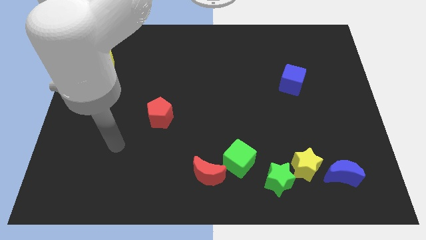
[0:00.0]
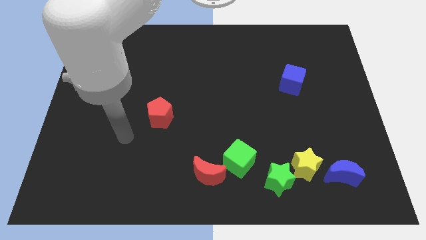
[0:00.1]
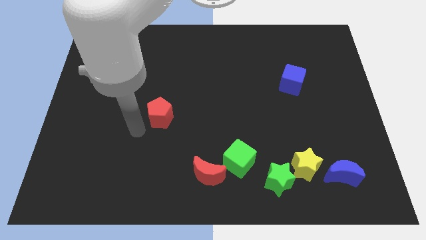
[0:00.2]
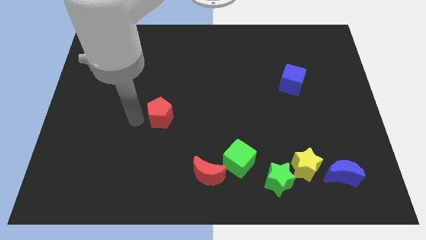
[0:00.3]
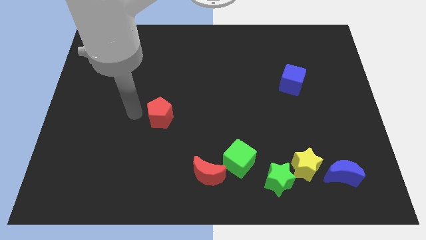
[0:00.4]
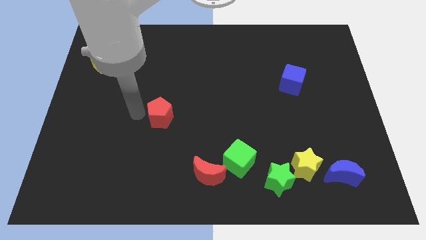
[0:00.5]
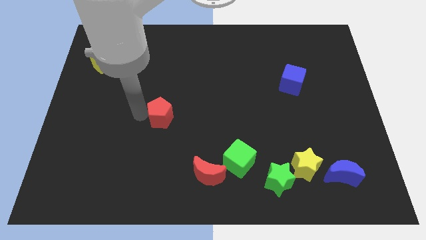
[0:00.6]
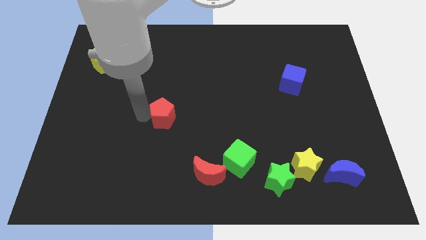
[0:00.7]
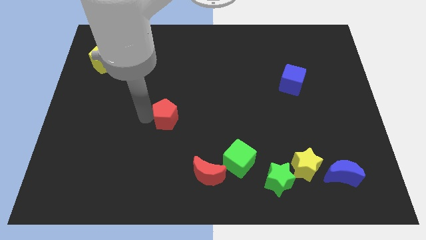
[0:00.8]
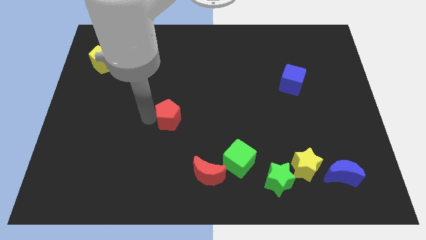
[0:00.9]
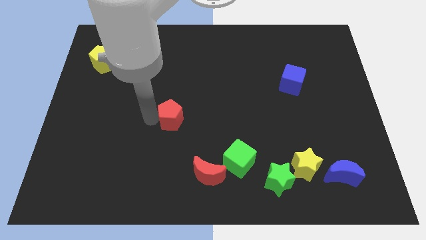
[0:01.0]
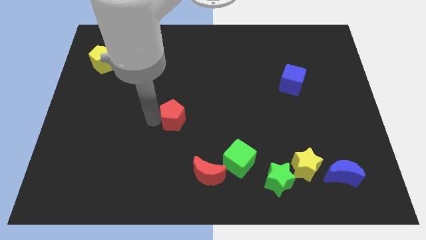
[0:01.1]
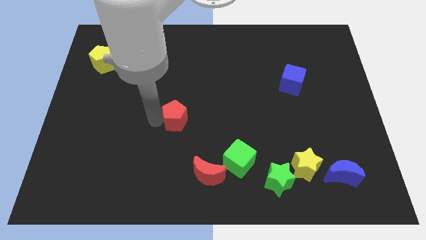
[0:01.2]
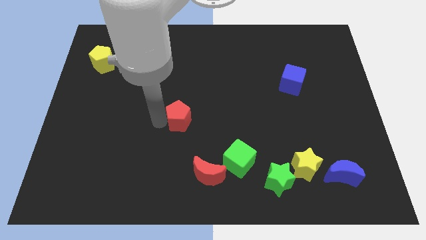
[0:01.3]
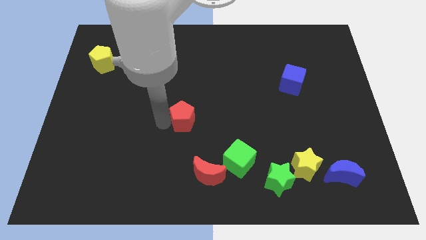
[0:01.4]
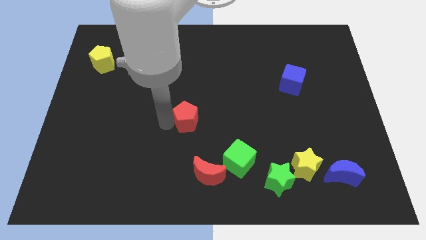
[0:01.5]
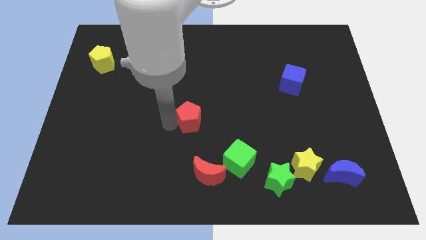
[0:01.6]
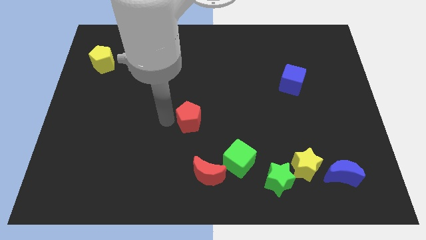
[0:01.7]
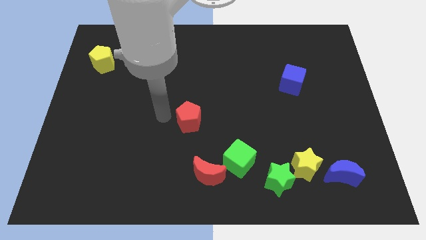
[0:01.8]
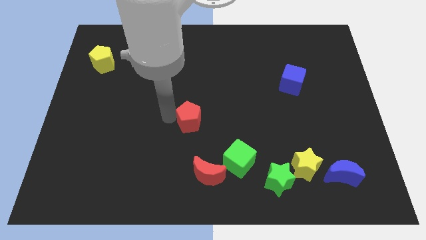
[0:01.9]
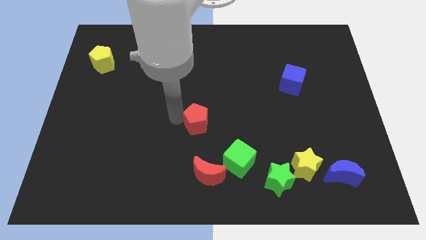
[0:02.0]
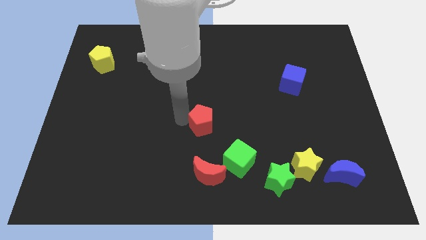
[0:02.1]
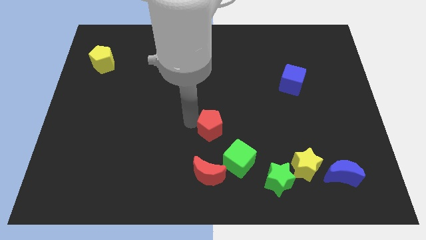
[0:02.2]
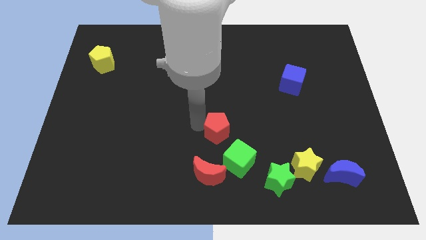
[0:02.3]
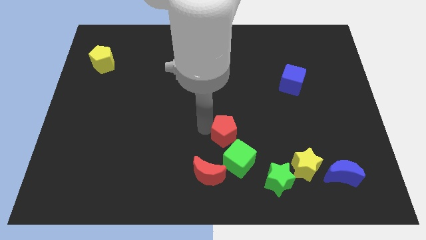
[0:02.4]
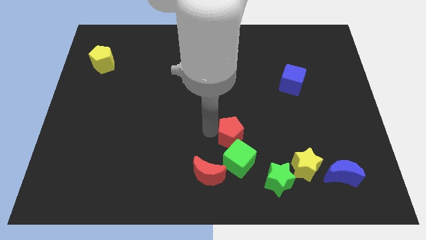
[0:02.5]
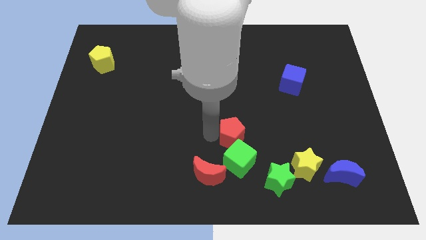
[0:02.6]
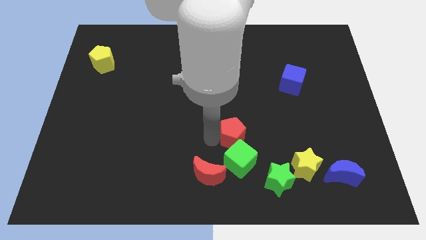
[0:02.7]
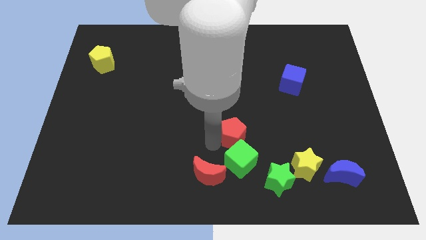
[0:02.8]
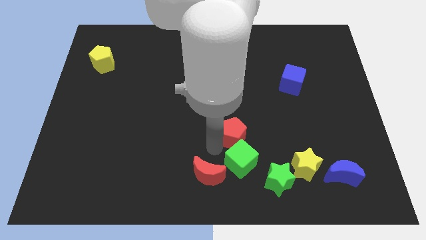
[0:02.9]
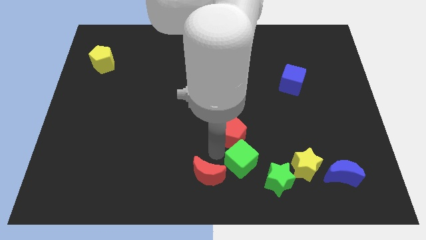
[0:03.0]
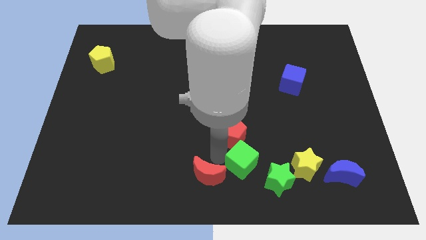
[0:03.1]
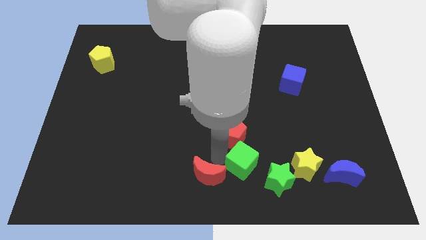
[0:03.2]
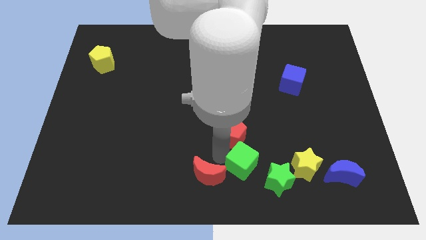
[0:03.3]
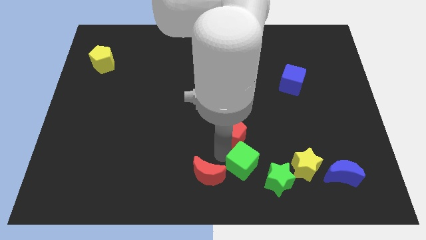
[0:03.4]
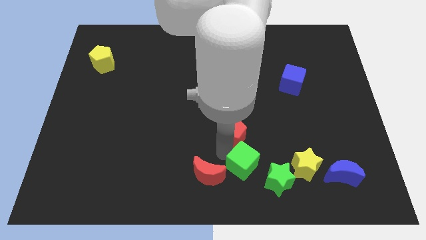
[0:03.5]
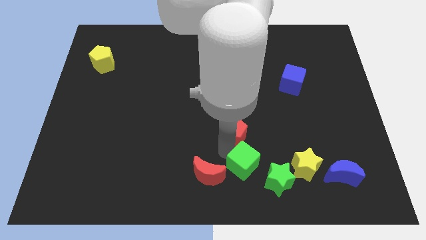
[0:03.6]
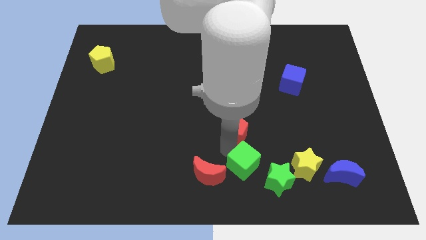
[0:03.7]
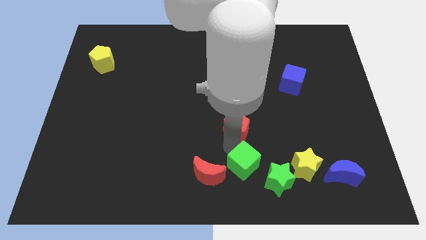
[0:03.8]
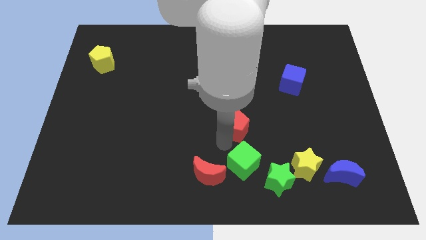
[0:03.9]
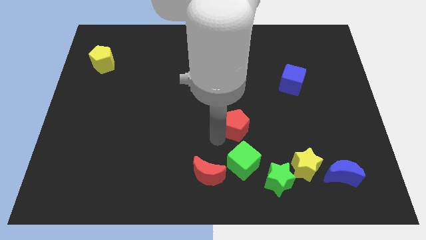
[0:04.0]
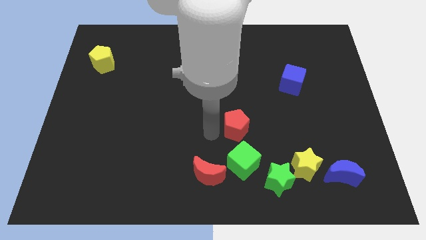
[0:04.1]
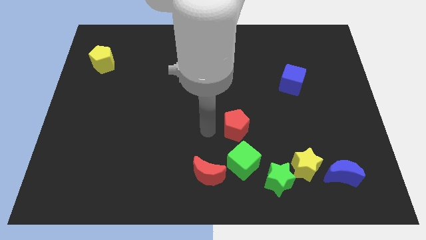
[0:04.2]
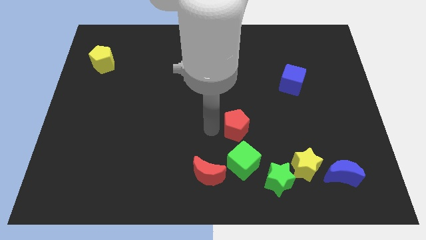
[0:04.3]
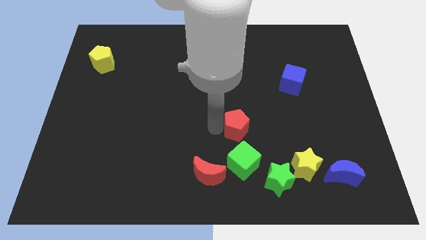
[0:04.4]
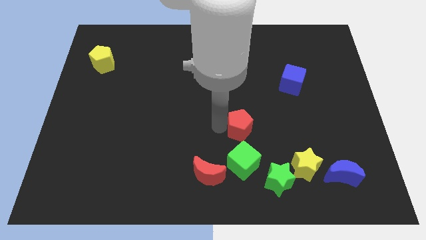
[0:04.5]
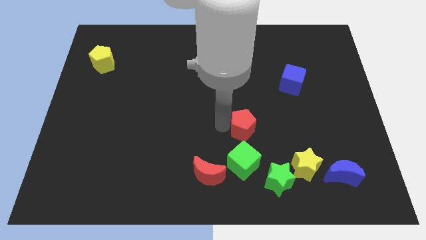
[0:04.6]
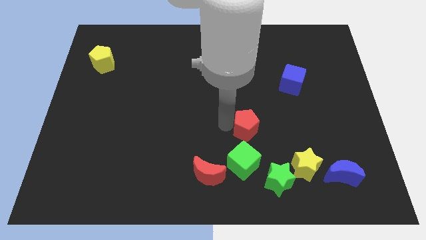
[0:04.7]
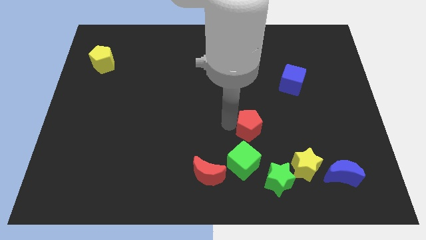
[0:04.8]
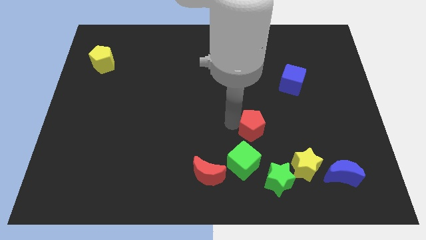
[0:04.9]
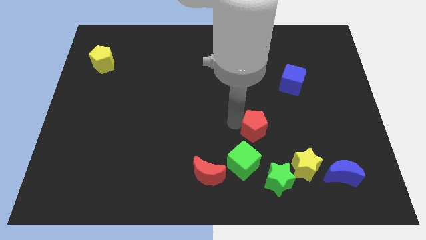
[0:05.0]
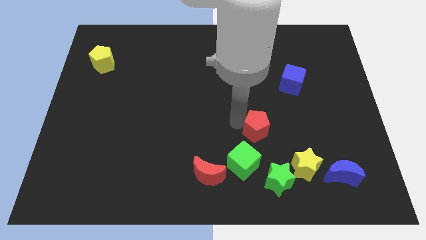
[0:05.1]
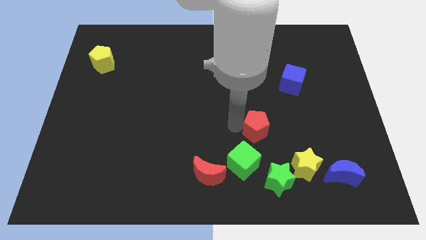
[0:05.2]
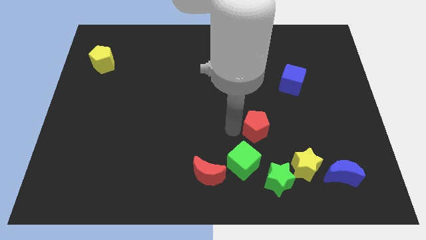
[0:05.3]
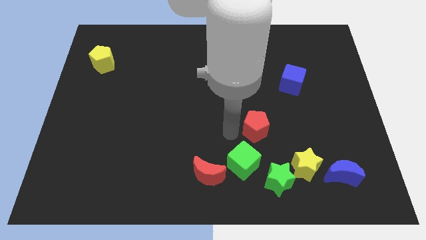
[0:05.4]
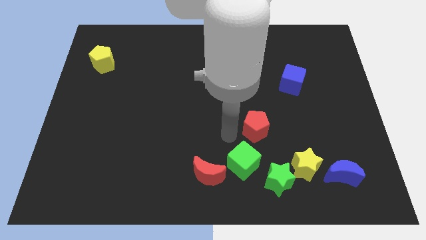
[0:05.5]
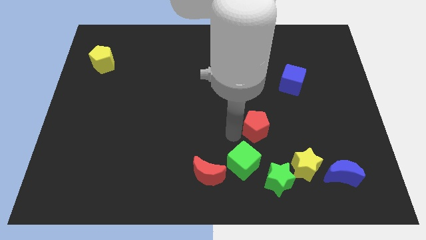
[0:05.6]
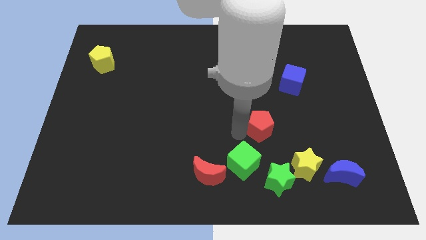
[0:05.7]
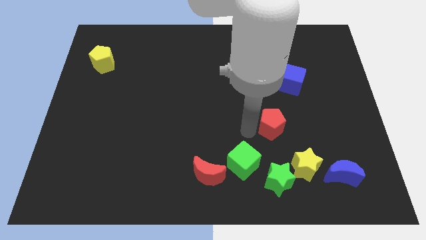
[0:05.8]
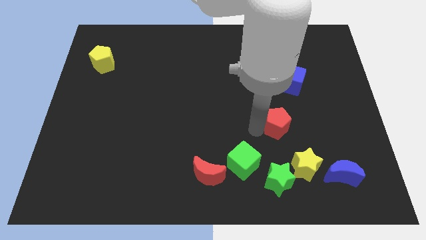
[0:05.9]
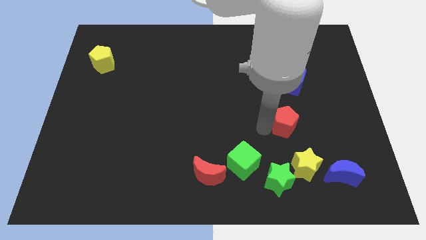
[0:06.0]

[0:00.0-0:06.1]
slide the red pentagon to the bottom side of the blue cube

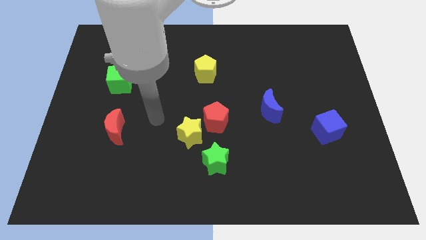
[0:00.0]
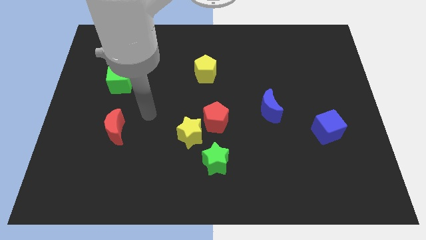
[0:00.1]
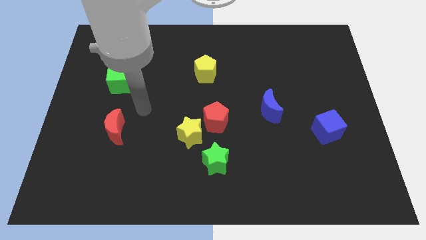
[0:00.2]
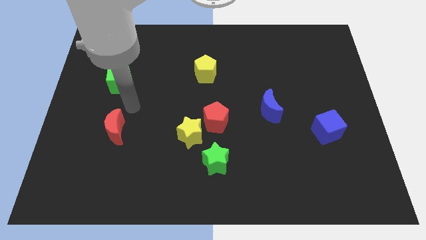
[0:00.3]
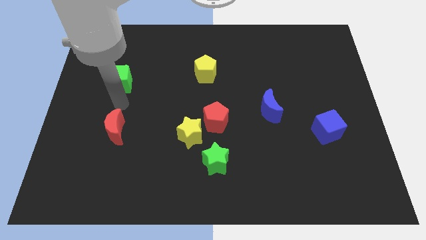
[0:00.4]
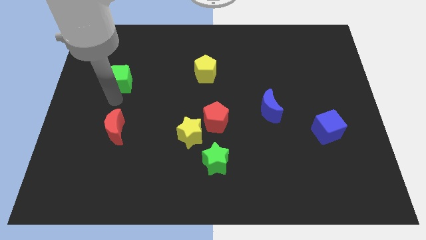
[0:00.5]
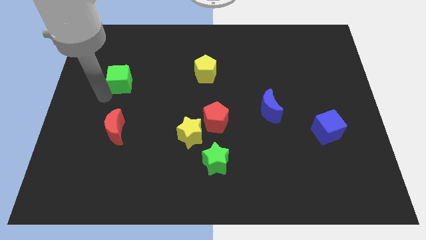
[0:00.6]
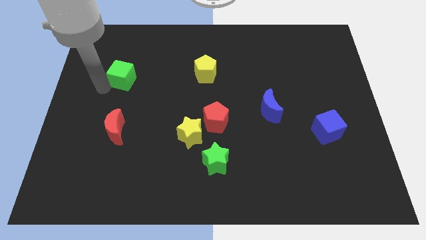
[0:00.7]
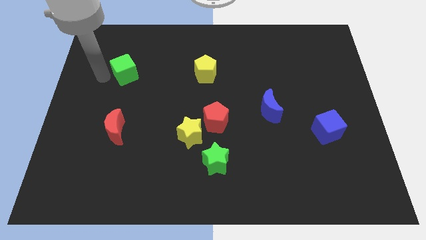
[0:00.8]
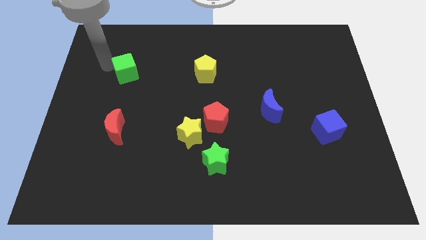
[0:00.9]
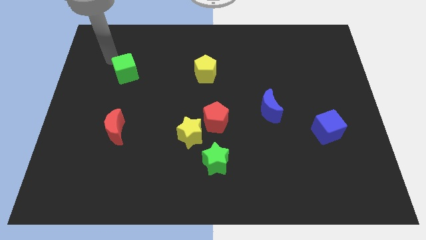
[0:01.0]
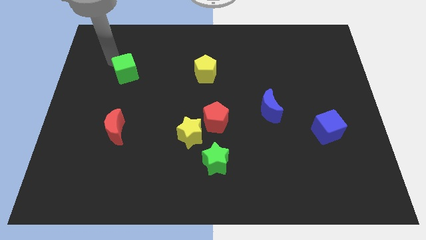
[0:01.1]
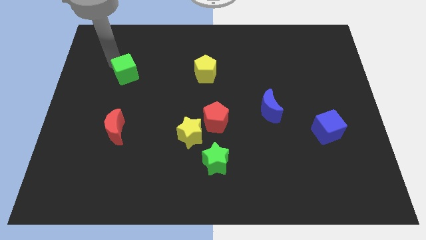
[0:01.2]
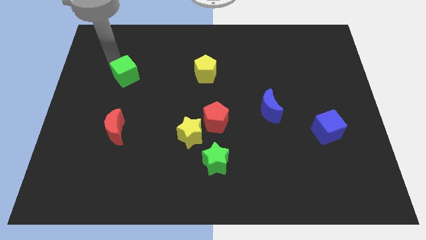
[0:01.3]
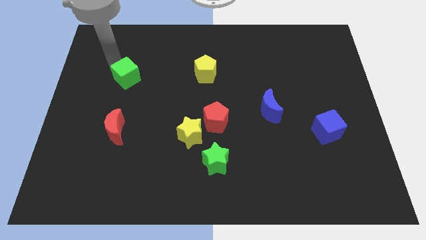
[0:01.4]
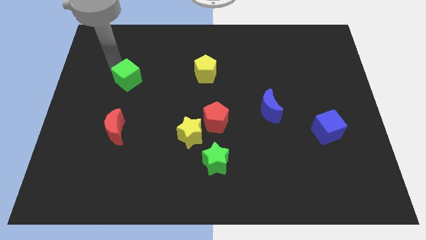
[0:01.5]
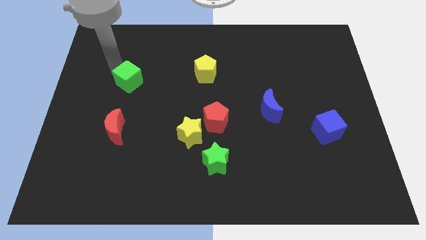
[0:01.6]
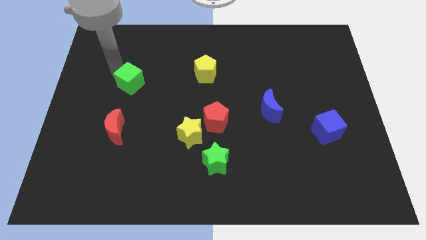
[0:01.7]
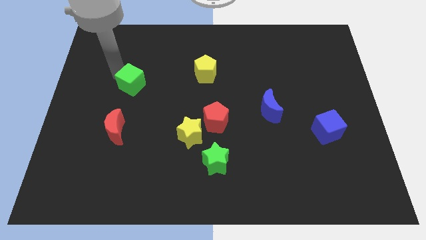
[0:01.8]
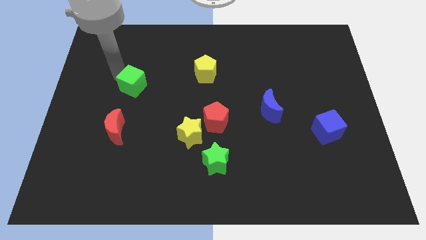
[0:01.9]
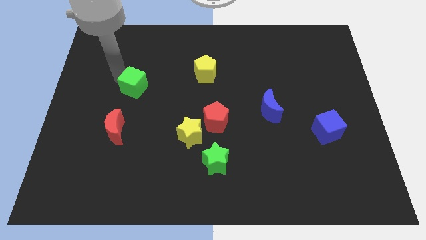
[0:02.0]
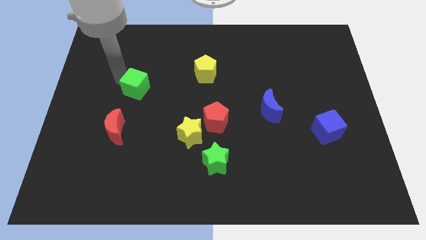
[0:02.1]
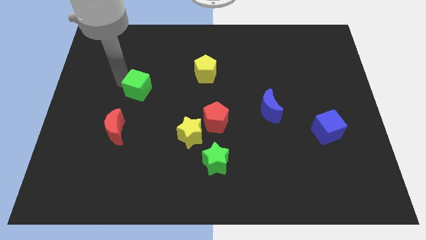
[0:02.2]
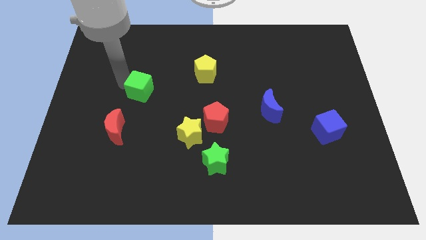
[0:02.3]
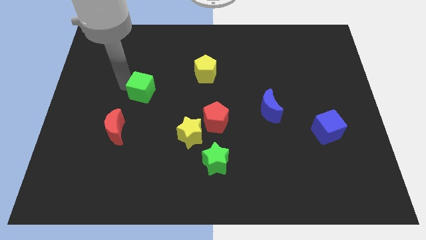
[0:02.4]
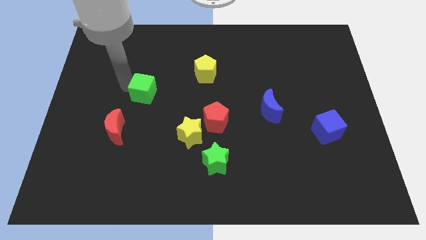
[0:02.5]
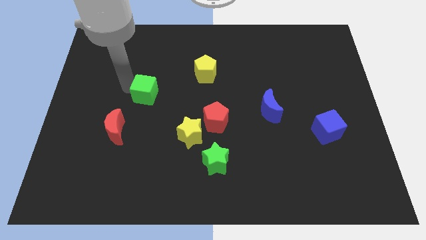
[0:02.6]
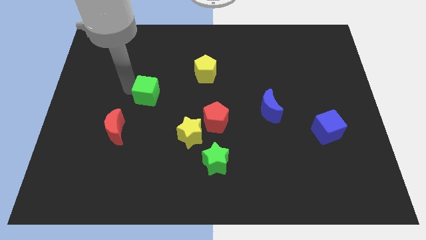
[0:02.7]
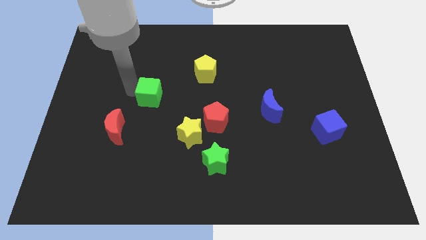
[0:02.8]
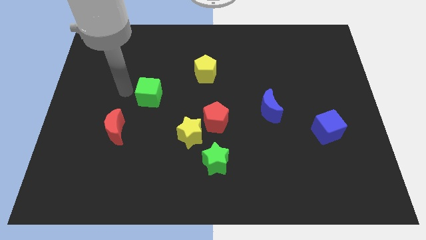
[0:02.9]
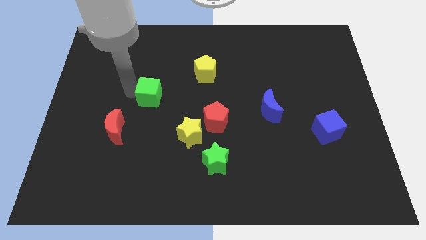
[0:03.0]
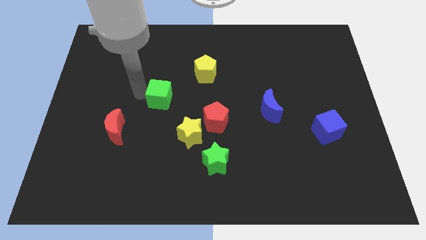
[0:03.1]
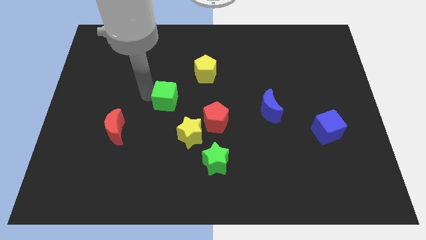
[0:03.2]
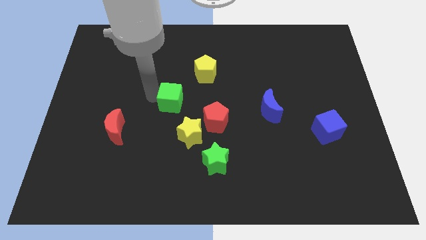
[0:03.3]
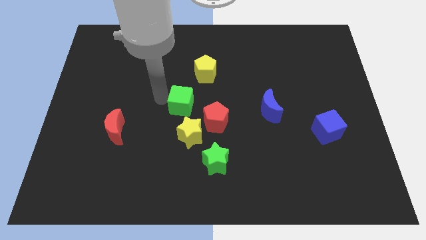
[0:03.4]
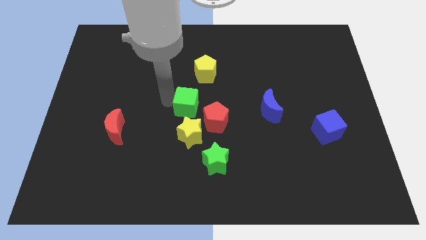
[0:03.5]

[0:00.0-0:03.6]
slide the green cube below the yellow pentagon
